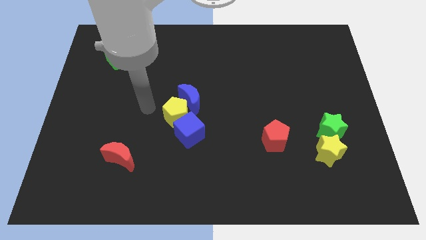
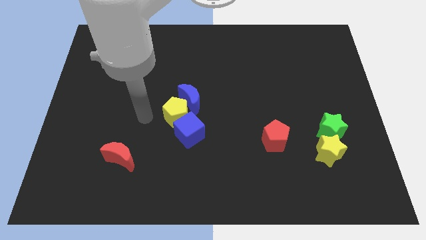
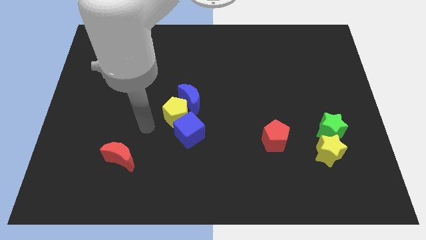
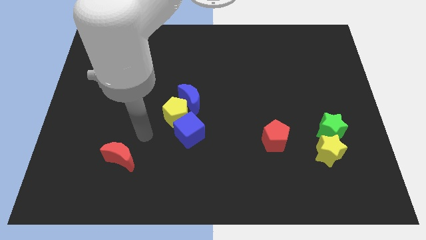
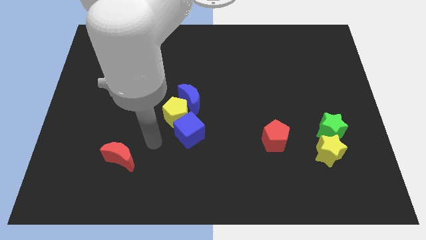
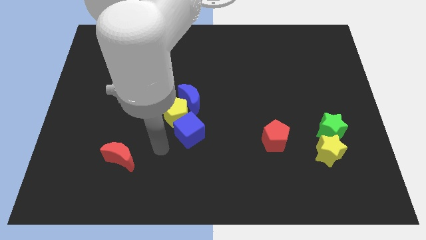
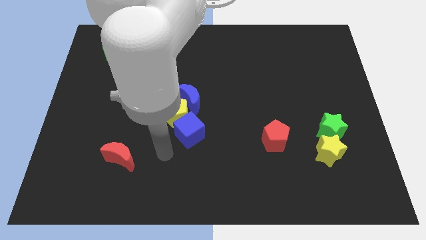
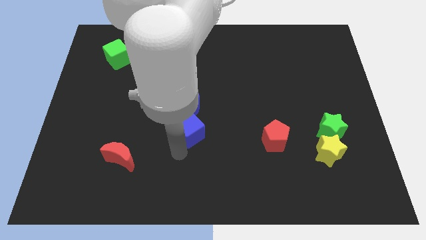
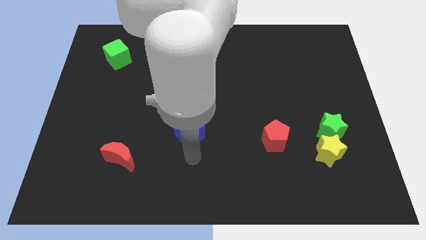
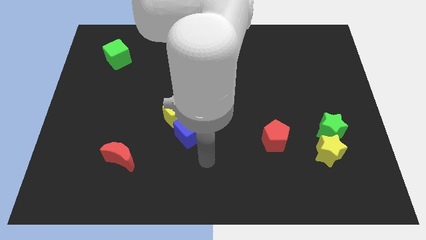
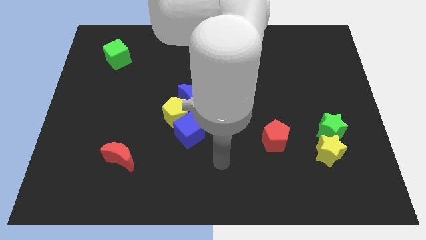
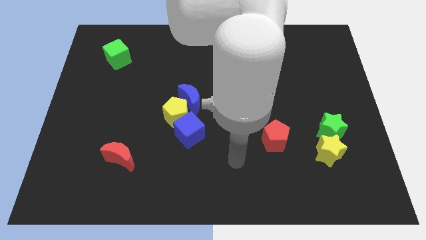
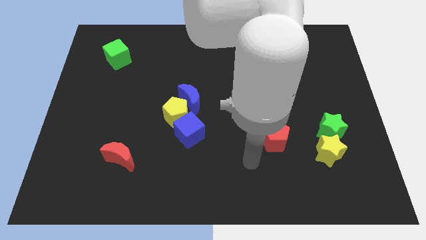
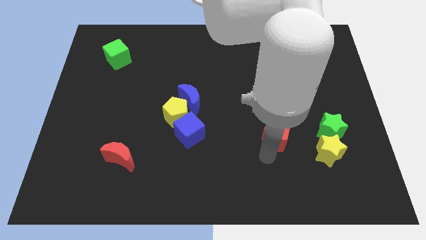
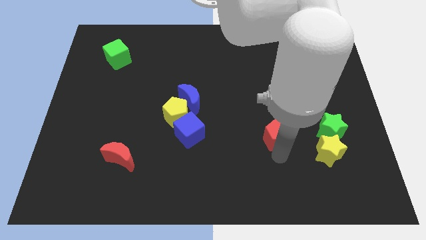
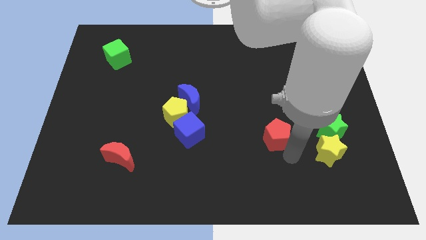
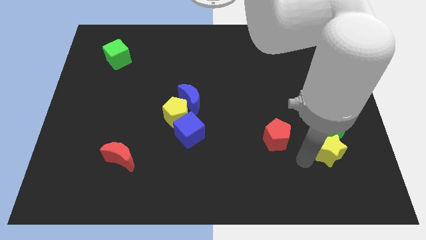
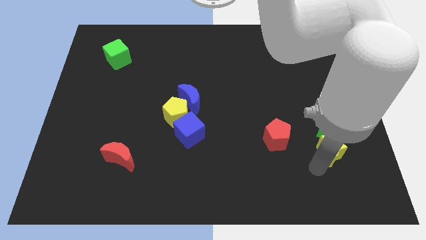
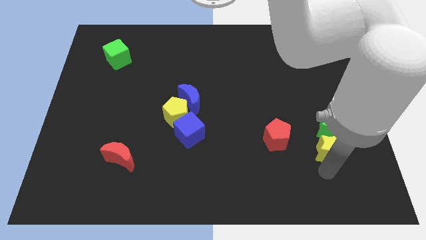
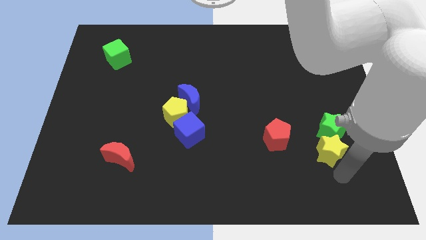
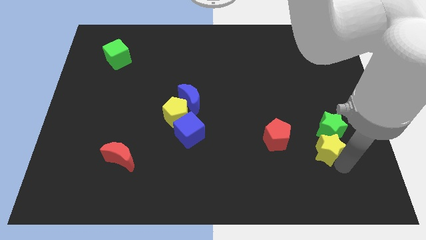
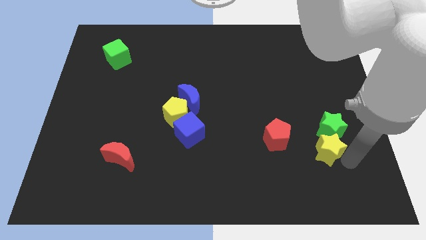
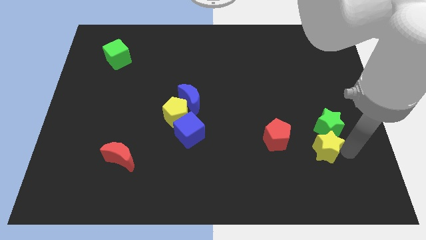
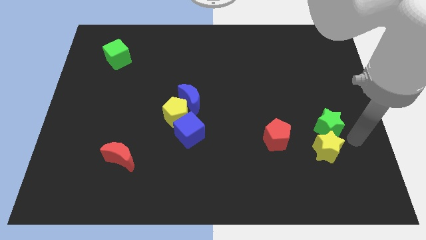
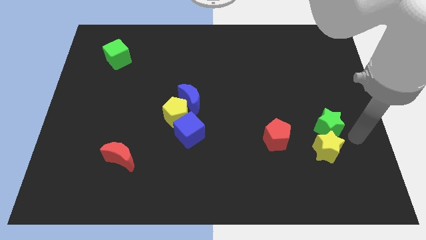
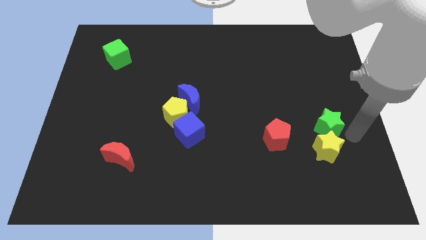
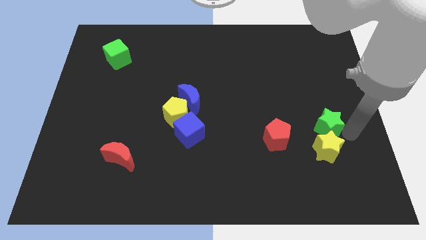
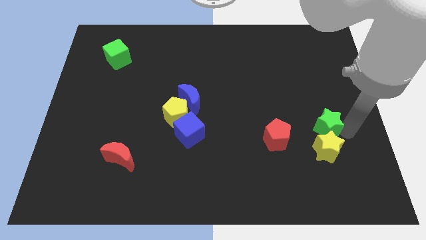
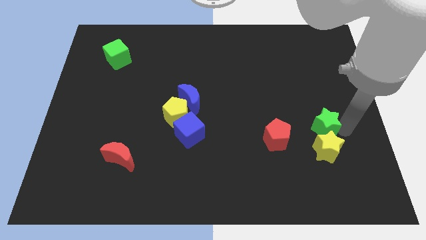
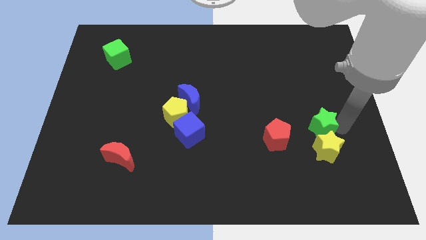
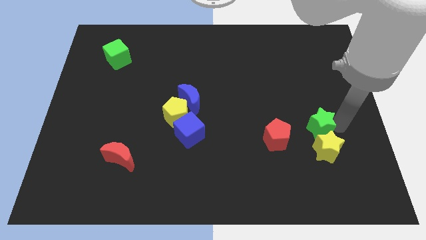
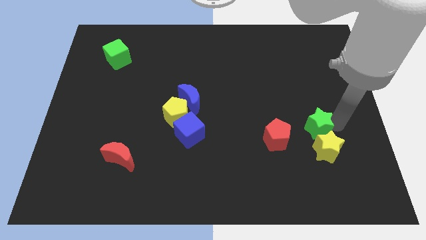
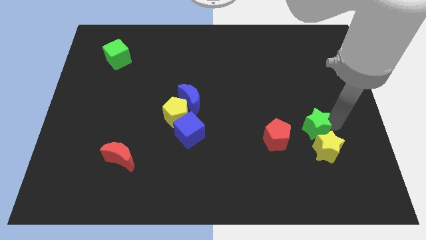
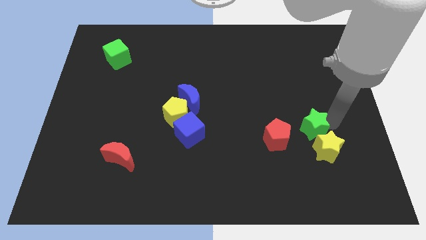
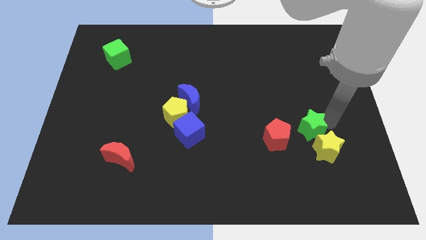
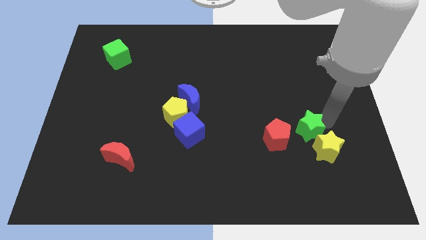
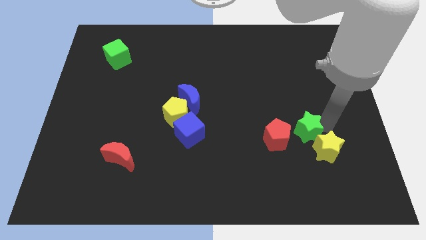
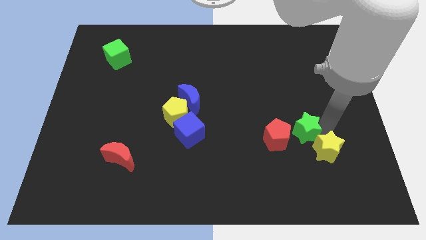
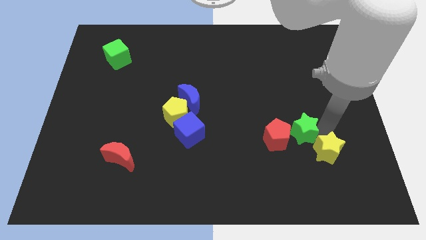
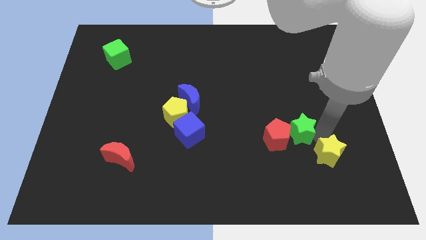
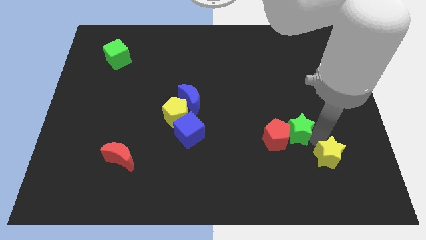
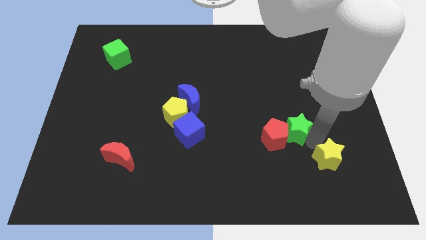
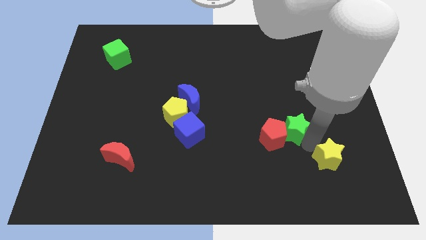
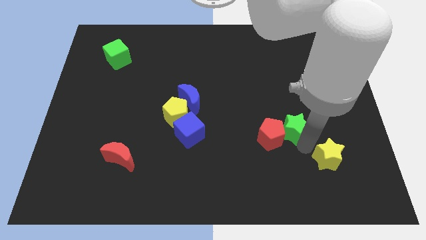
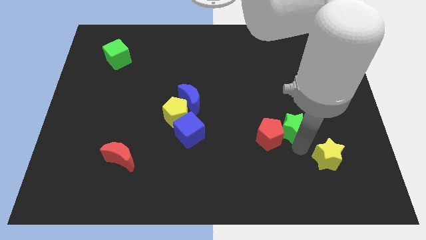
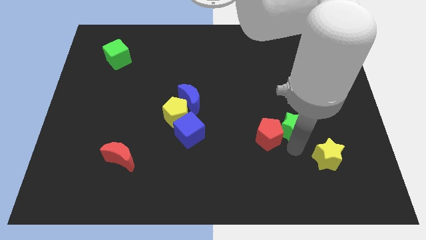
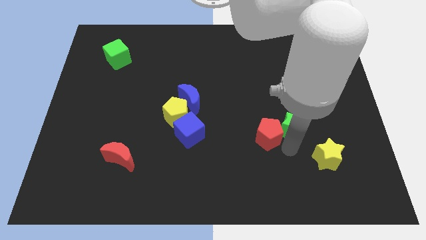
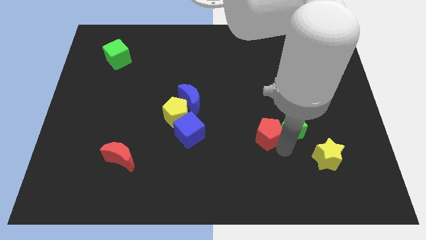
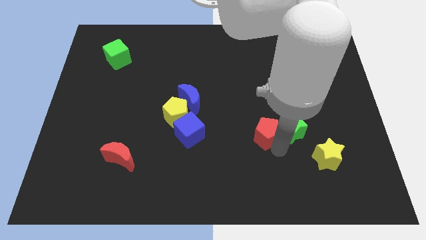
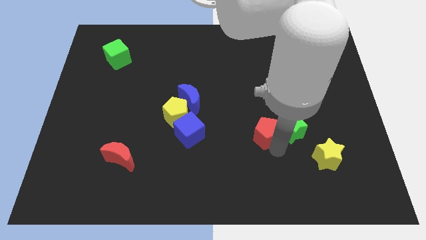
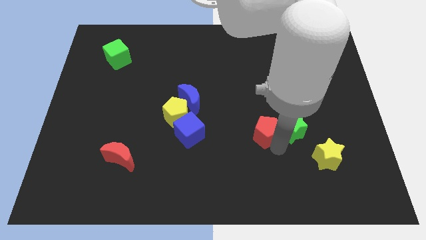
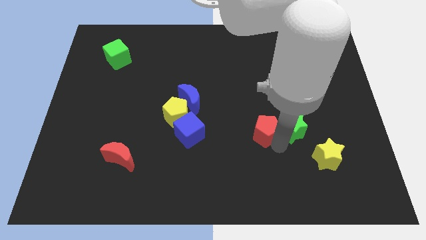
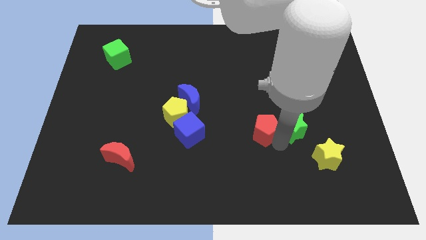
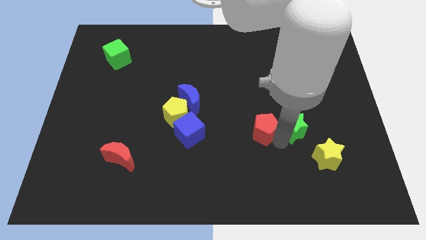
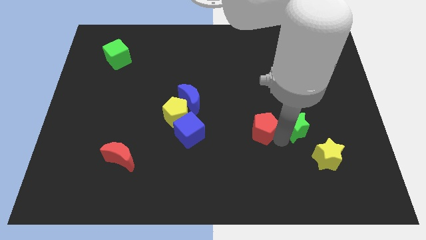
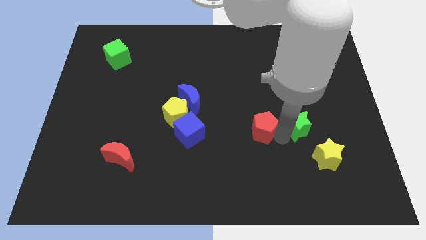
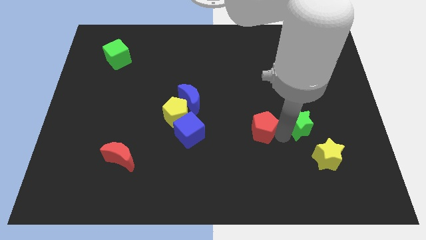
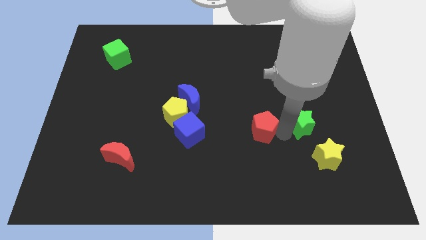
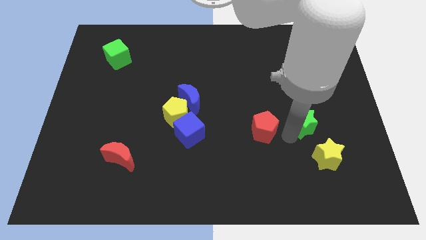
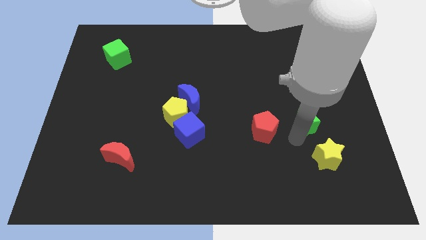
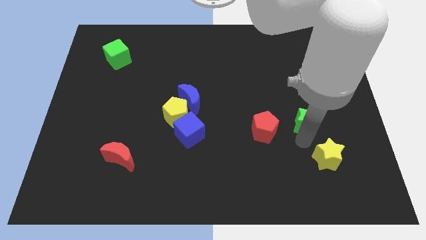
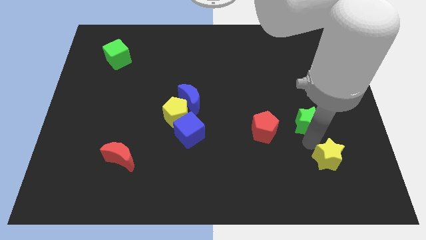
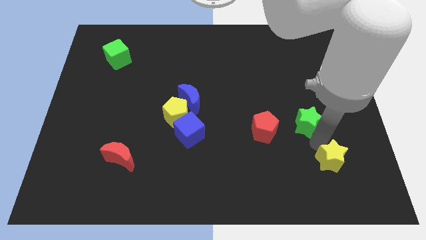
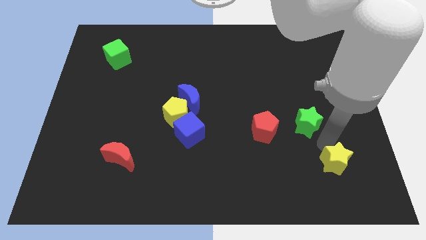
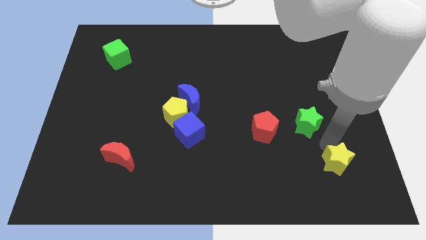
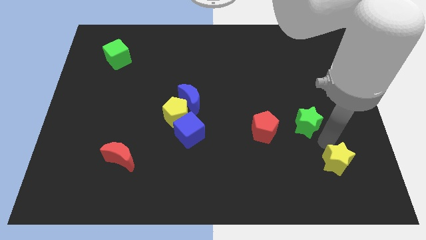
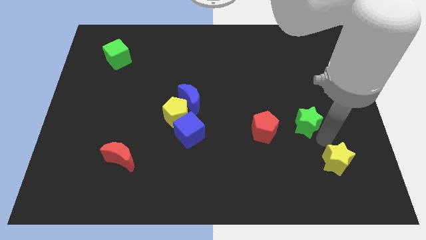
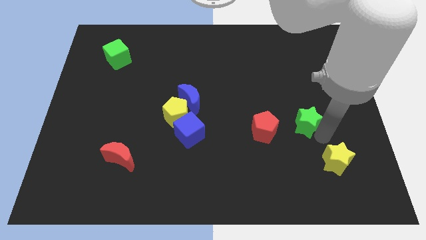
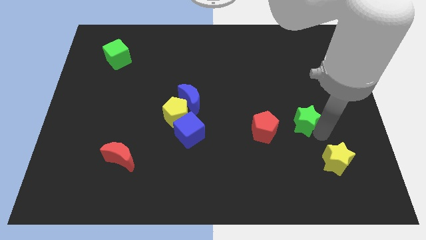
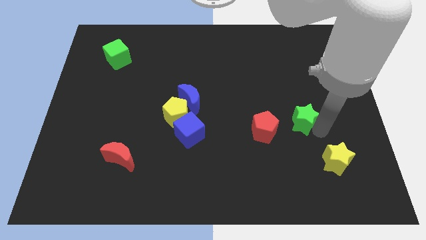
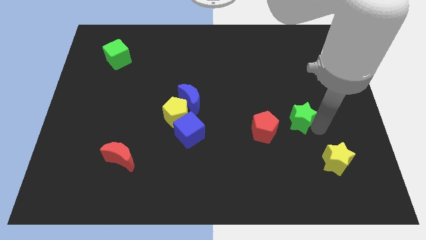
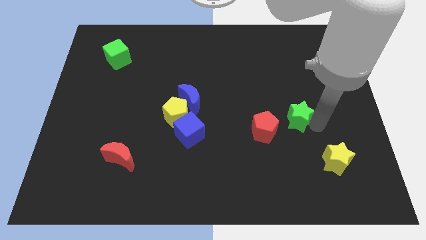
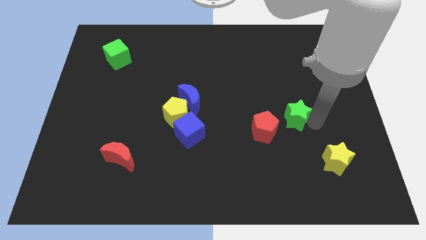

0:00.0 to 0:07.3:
move the green star up and to the left somewhat

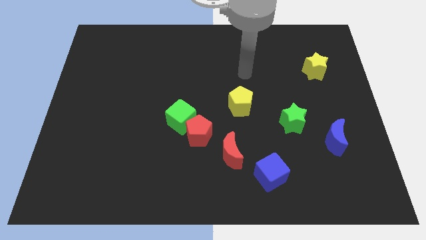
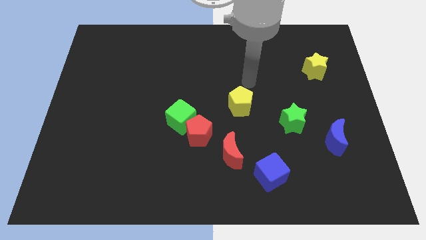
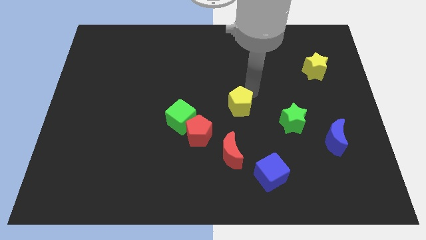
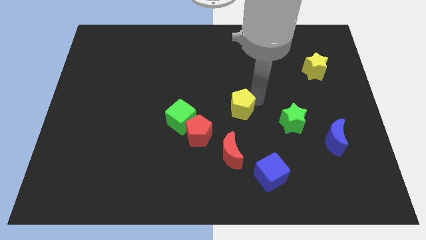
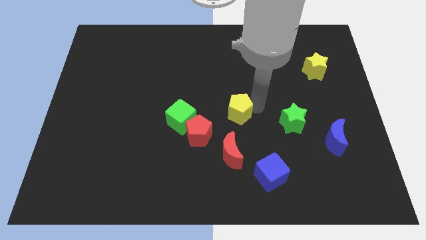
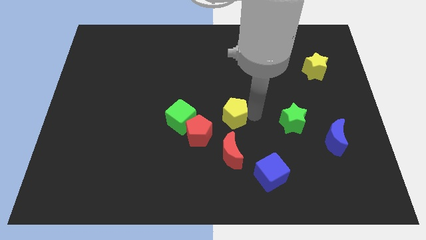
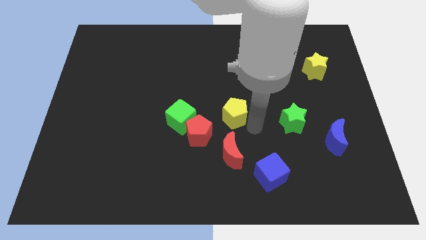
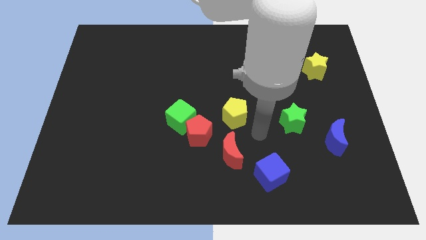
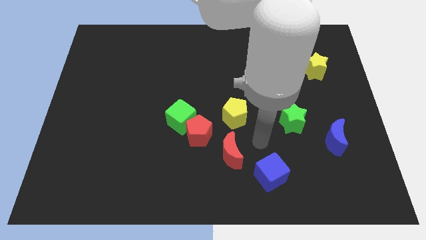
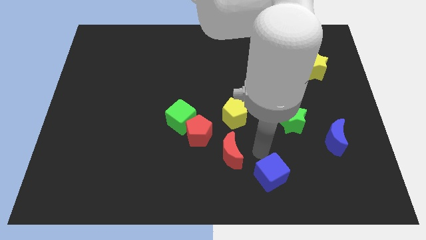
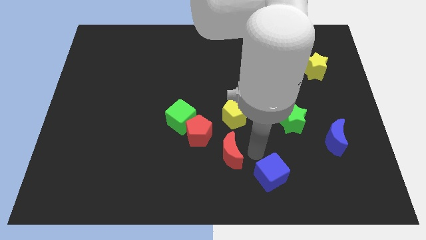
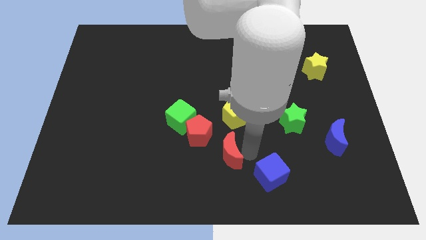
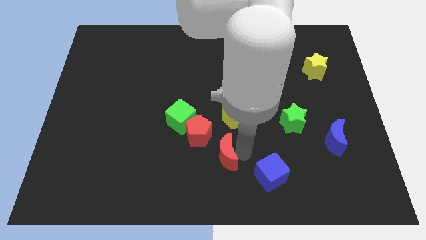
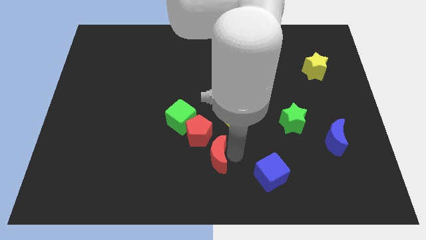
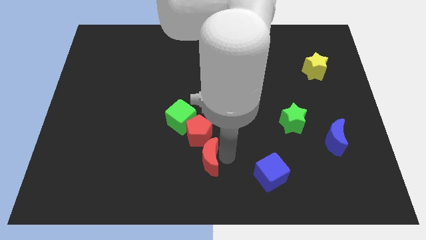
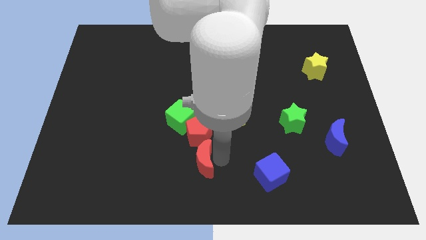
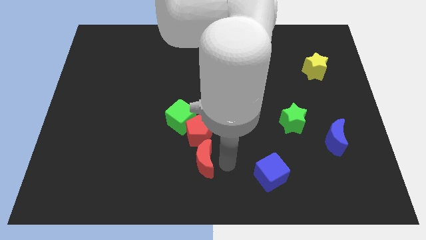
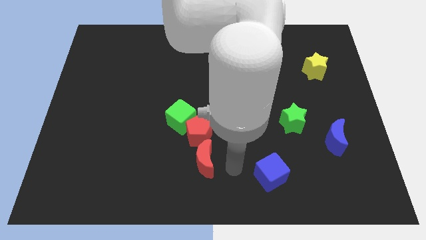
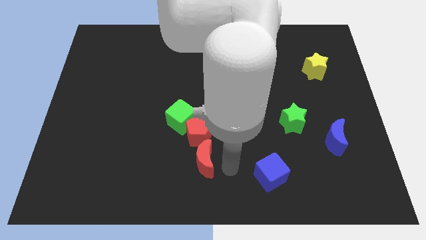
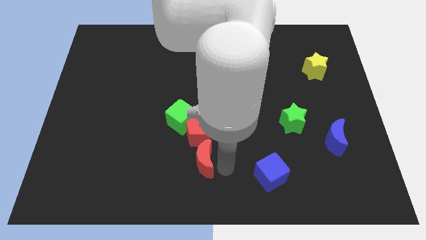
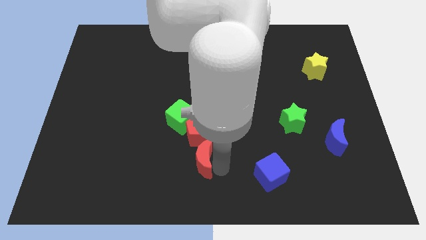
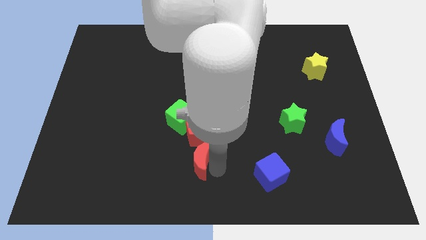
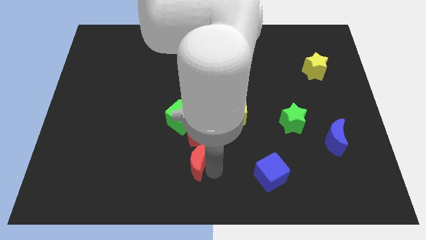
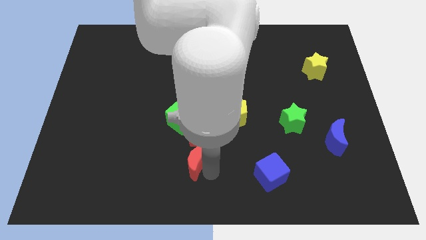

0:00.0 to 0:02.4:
move the red moon slightly to the left
